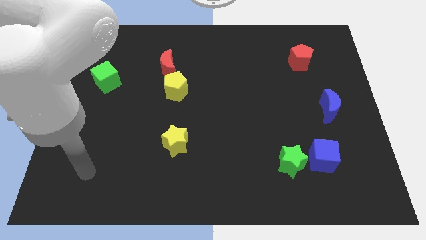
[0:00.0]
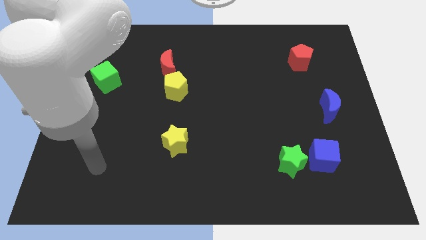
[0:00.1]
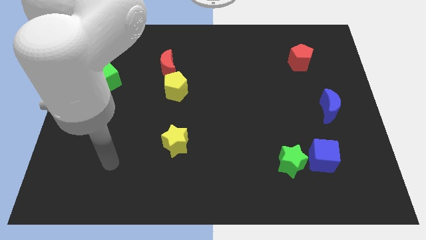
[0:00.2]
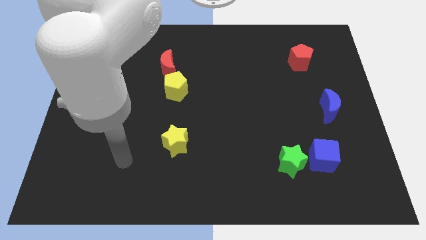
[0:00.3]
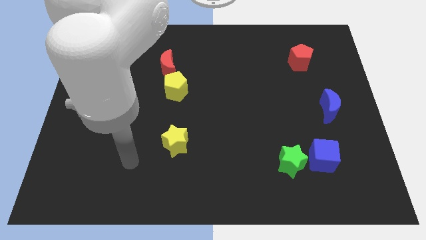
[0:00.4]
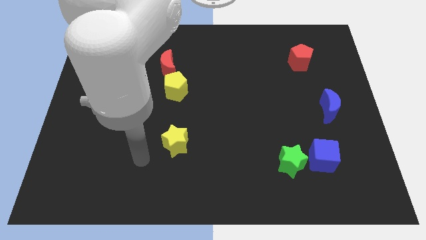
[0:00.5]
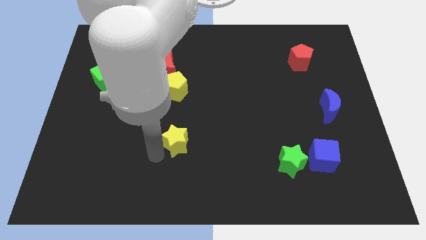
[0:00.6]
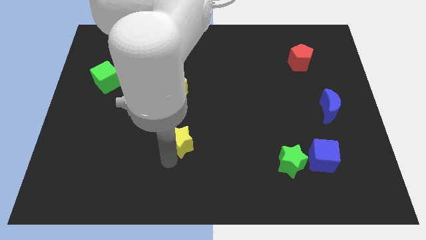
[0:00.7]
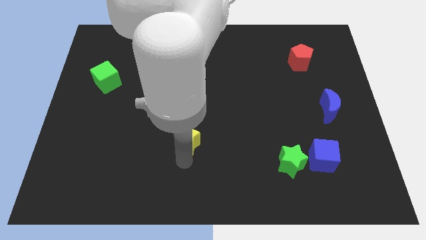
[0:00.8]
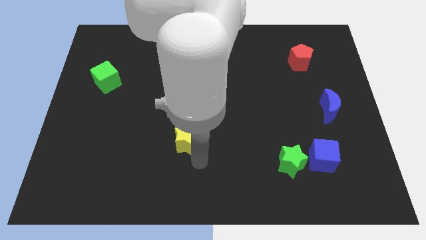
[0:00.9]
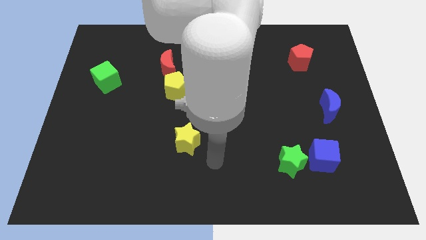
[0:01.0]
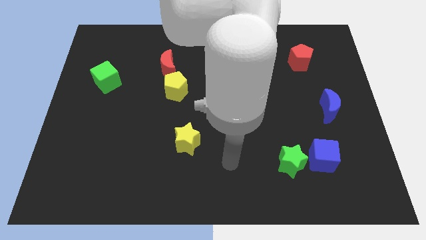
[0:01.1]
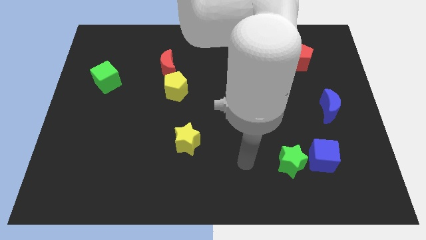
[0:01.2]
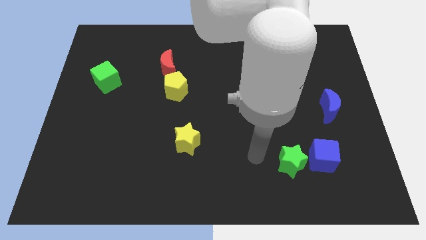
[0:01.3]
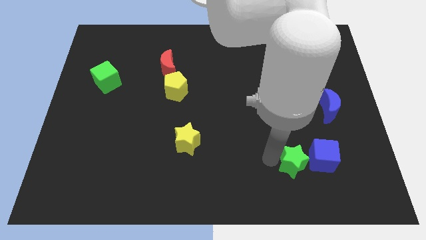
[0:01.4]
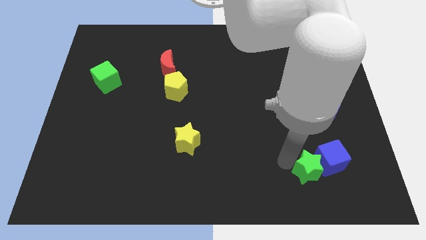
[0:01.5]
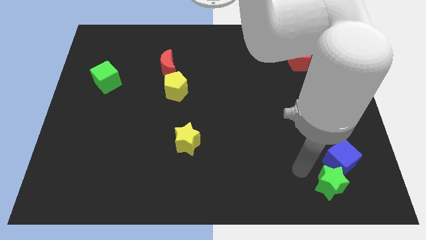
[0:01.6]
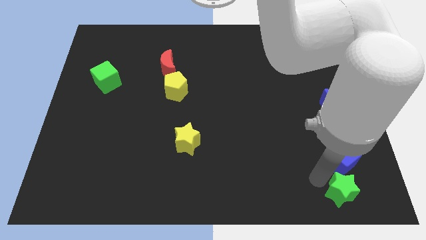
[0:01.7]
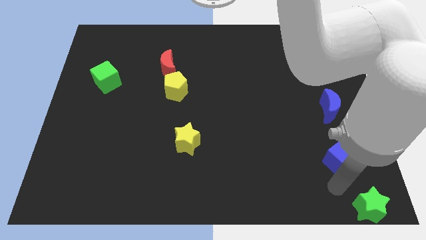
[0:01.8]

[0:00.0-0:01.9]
move the blue cube away from the green star

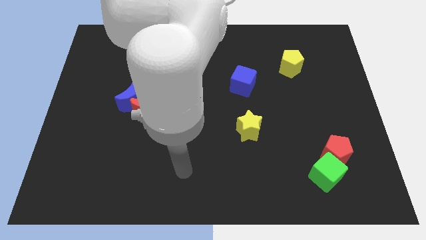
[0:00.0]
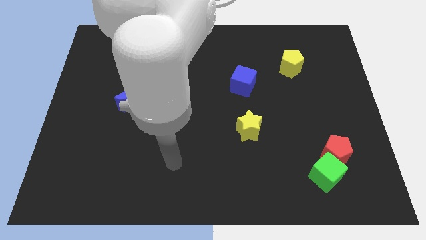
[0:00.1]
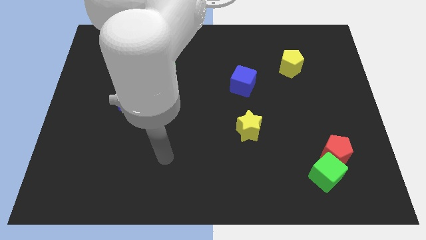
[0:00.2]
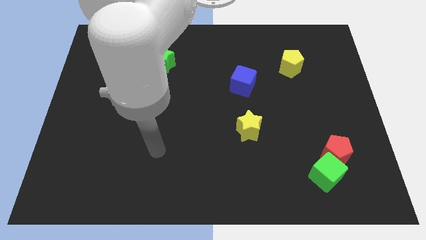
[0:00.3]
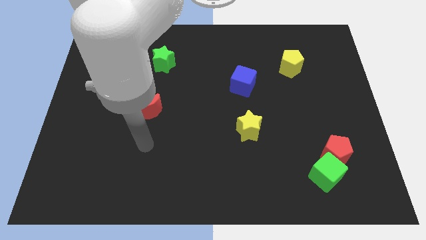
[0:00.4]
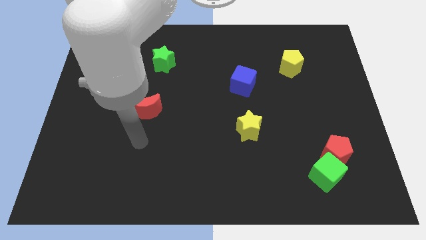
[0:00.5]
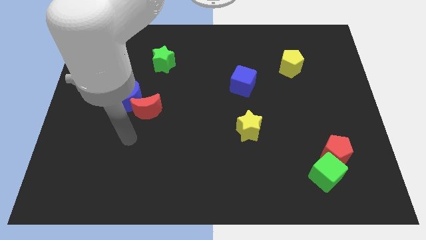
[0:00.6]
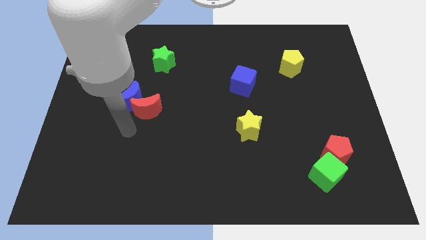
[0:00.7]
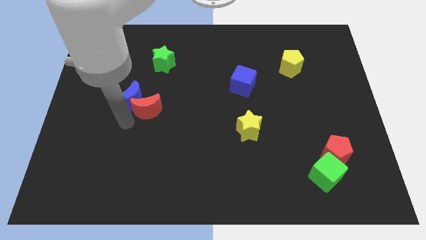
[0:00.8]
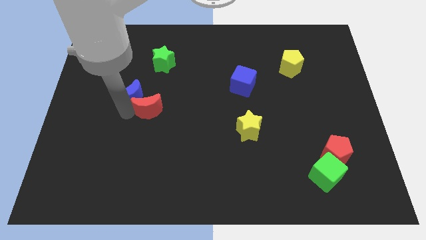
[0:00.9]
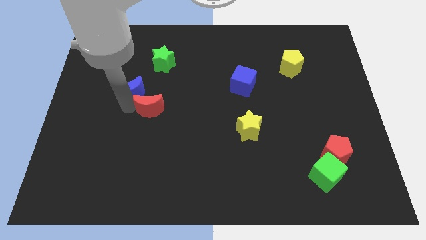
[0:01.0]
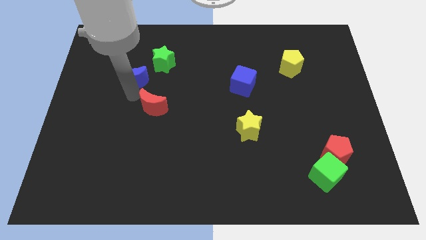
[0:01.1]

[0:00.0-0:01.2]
separate the red moon from the blue moon

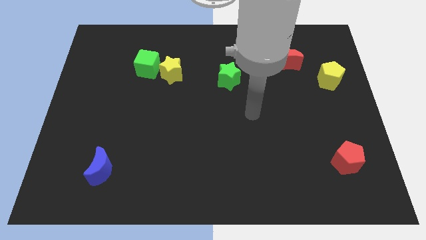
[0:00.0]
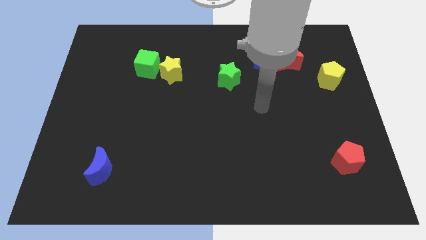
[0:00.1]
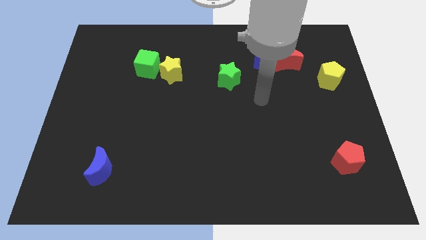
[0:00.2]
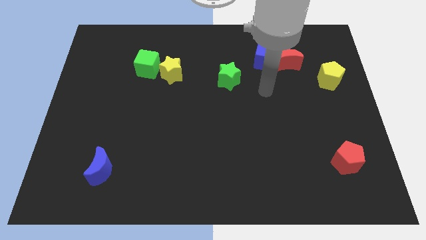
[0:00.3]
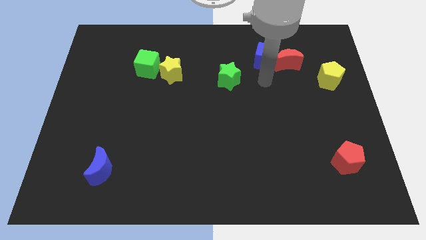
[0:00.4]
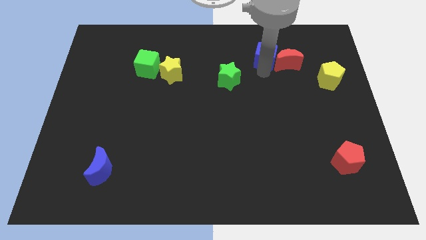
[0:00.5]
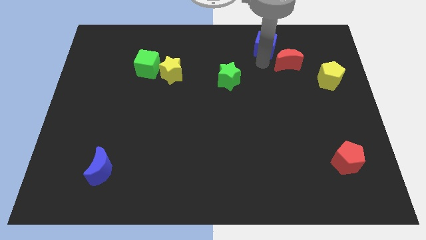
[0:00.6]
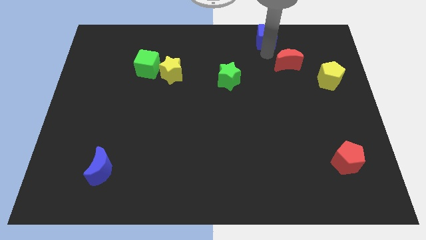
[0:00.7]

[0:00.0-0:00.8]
move the red moon away from the blue cube

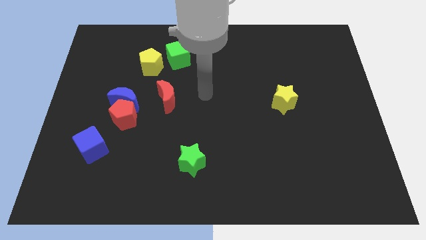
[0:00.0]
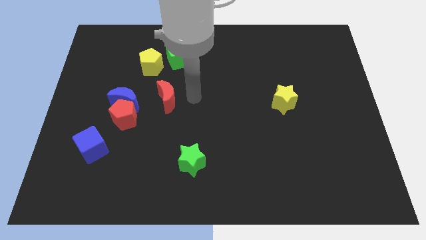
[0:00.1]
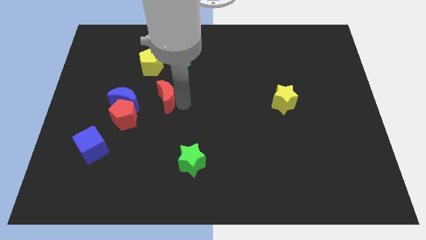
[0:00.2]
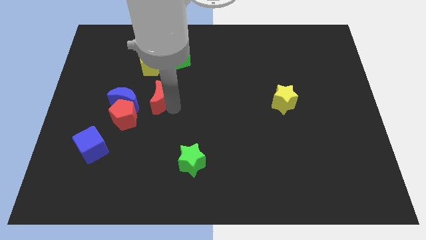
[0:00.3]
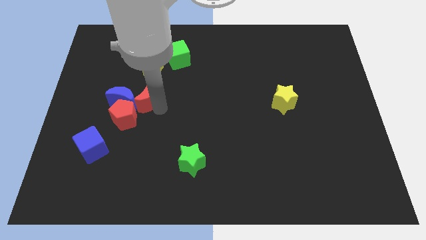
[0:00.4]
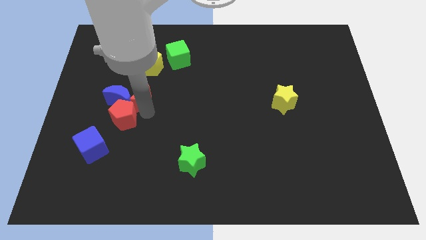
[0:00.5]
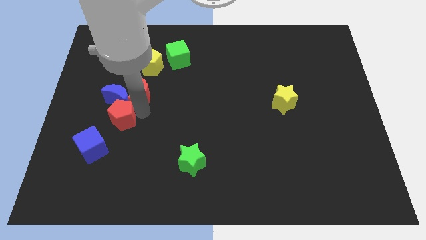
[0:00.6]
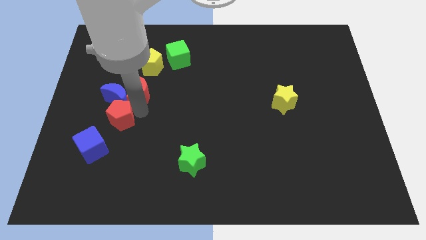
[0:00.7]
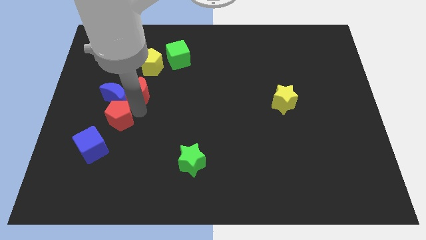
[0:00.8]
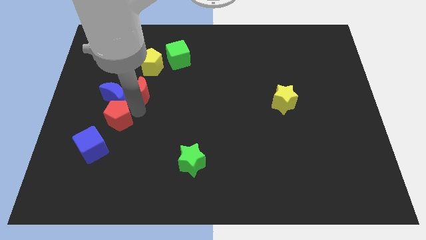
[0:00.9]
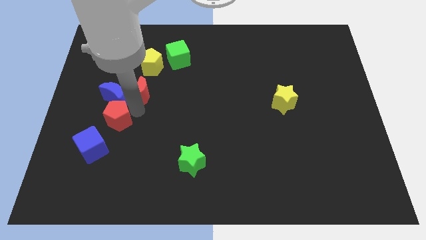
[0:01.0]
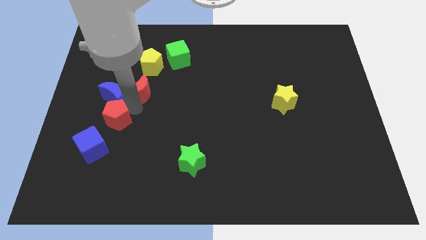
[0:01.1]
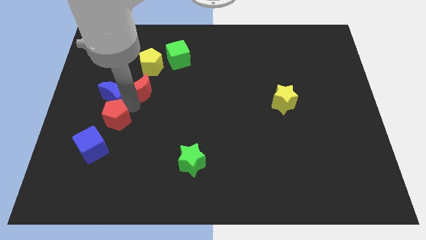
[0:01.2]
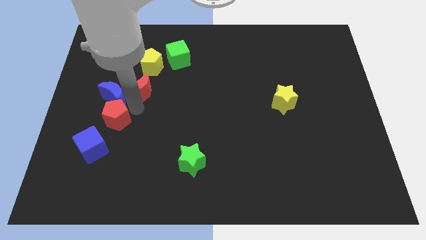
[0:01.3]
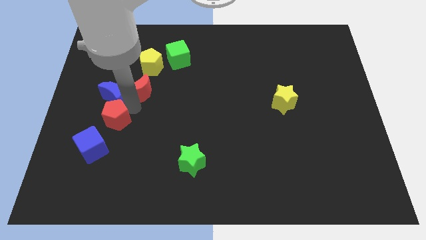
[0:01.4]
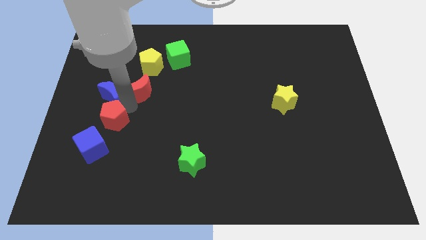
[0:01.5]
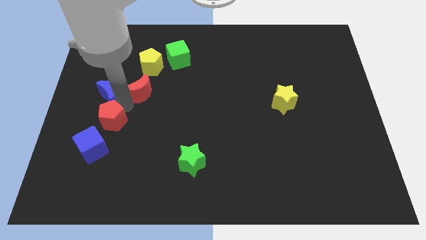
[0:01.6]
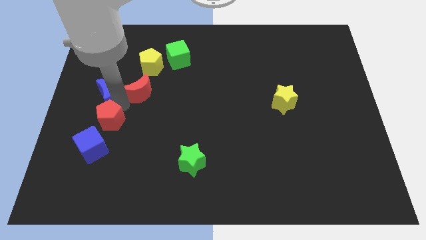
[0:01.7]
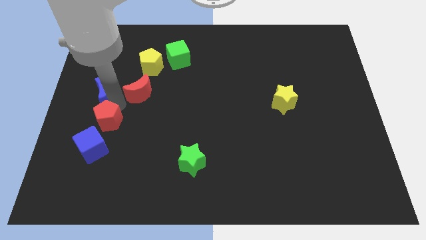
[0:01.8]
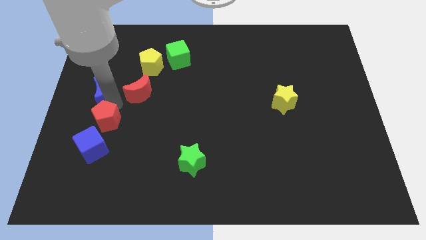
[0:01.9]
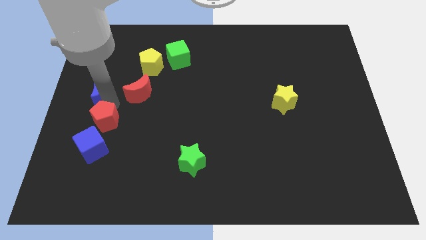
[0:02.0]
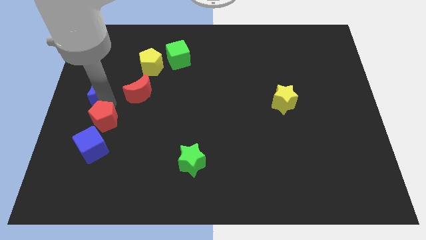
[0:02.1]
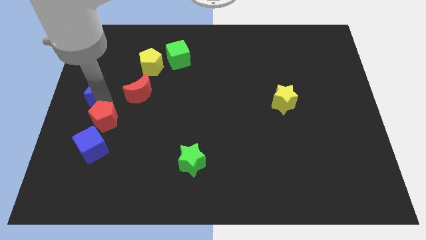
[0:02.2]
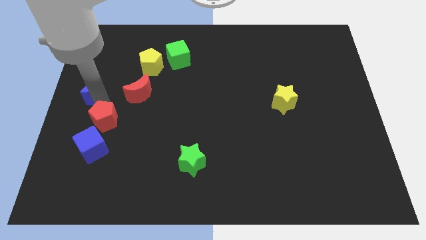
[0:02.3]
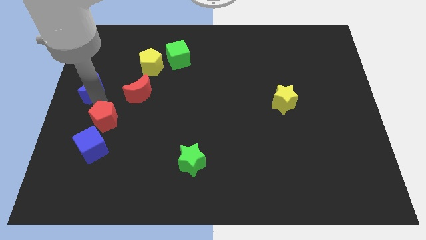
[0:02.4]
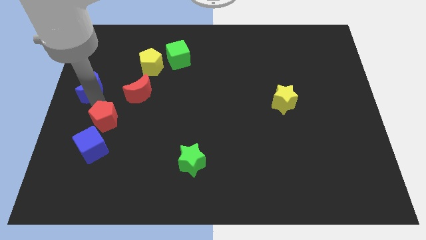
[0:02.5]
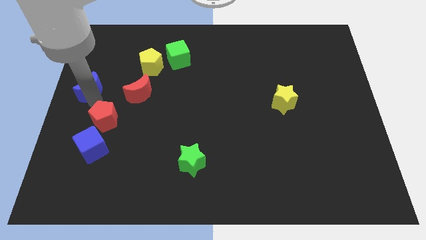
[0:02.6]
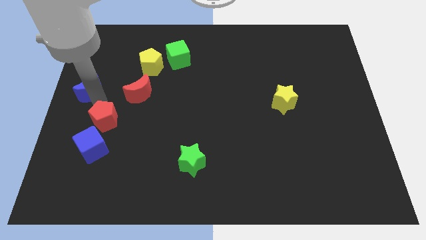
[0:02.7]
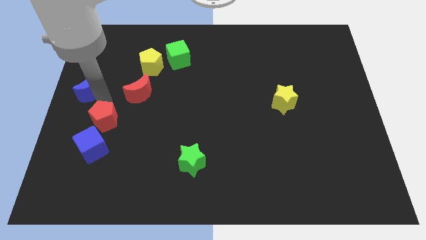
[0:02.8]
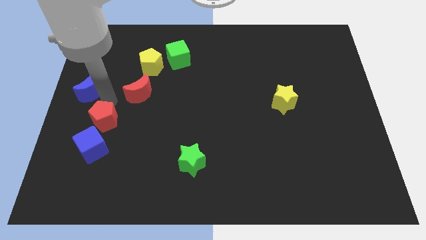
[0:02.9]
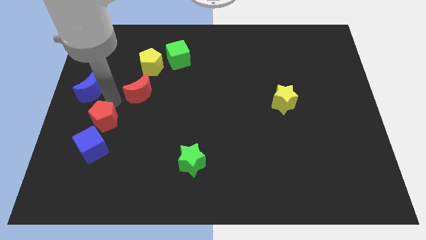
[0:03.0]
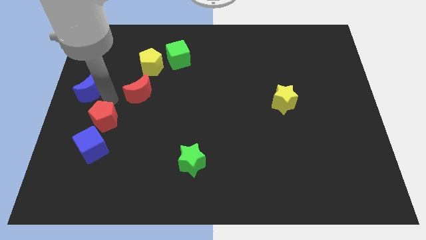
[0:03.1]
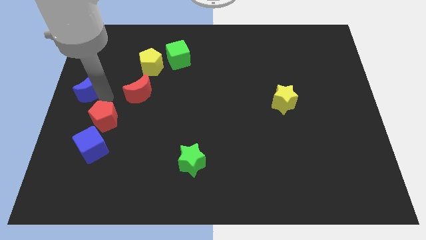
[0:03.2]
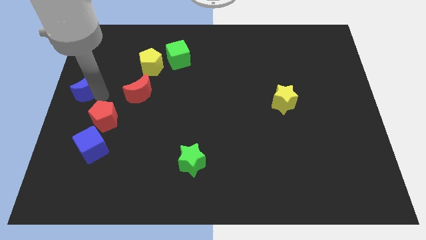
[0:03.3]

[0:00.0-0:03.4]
separate the blue moon from the red pentagon and red moon

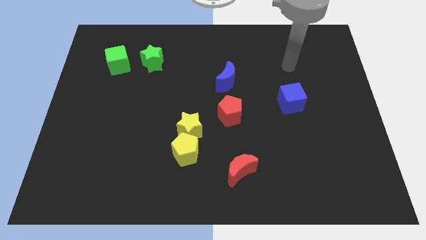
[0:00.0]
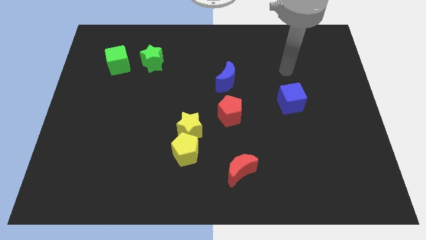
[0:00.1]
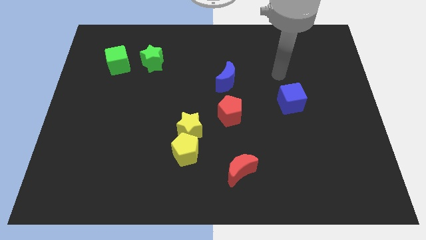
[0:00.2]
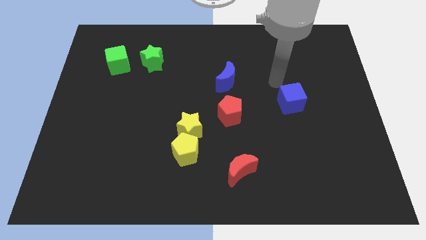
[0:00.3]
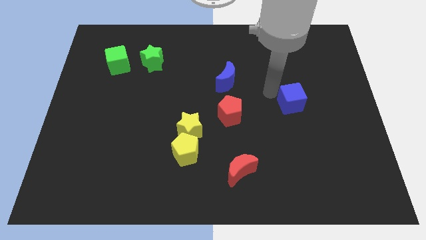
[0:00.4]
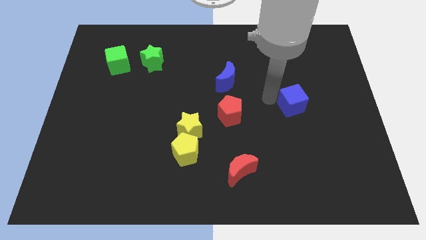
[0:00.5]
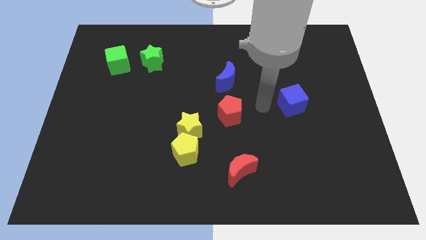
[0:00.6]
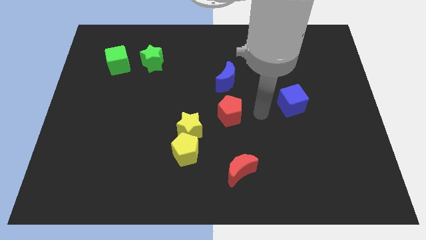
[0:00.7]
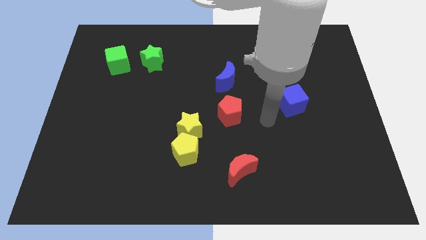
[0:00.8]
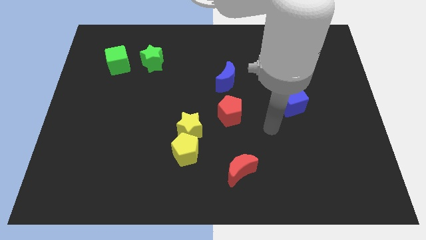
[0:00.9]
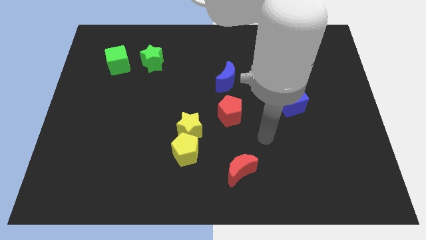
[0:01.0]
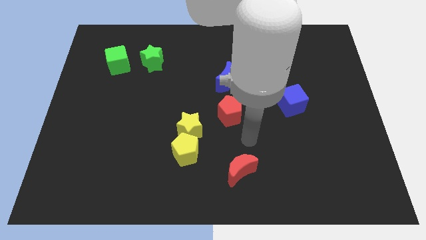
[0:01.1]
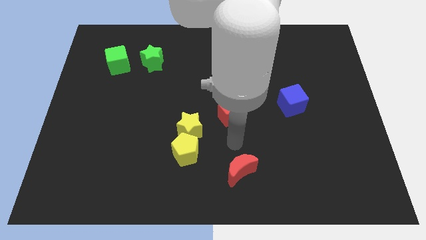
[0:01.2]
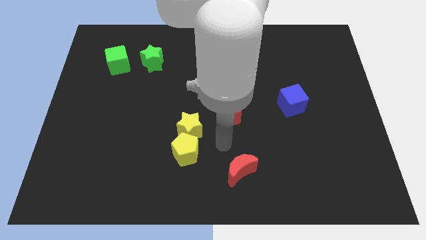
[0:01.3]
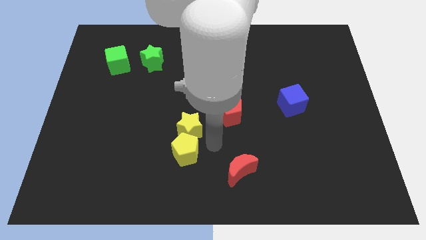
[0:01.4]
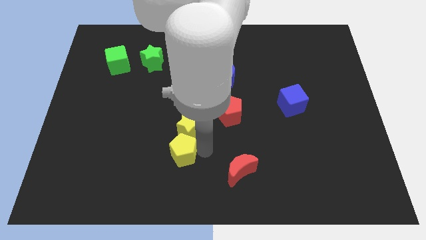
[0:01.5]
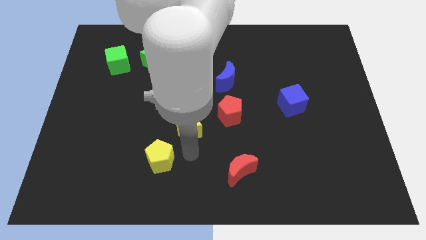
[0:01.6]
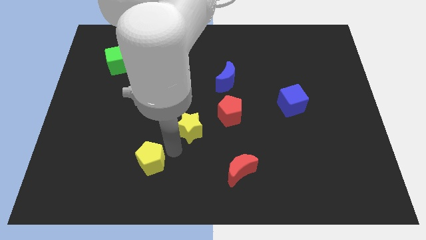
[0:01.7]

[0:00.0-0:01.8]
separate the yellow star from the yellow pentagon

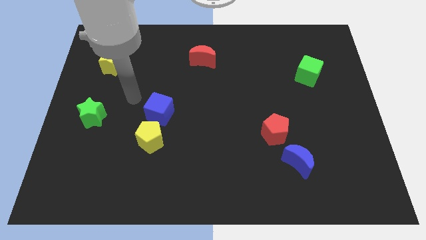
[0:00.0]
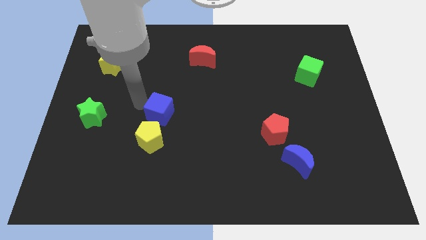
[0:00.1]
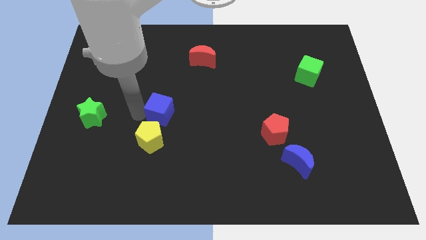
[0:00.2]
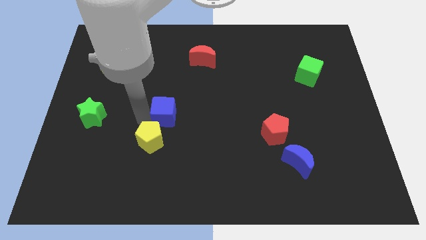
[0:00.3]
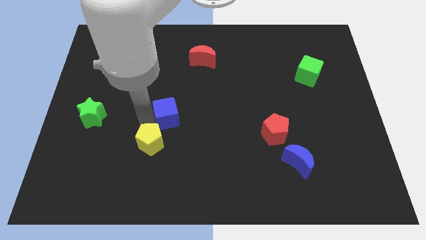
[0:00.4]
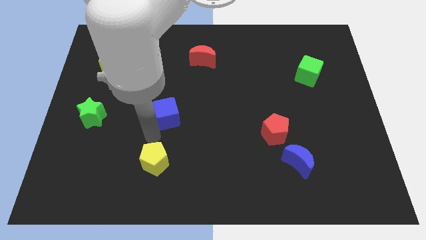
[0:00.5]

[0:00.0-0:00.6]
separate the blue cube from the yellow pentagon
